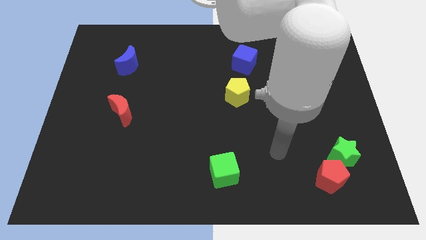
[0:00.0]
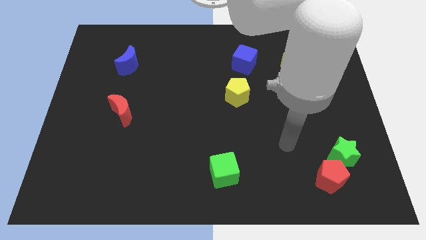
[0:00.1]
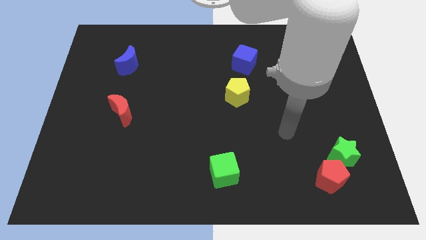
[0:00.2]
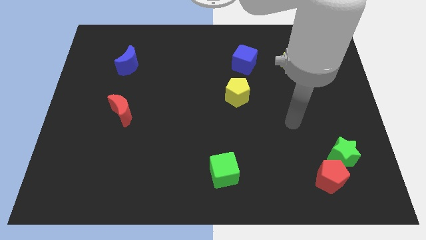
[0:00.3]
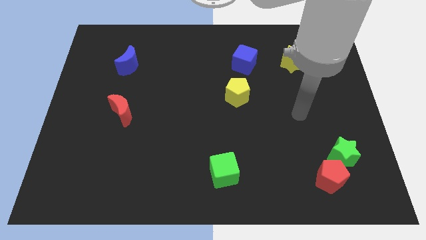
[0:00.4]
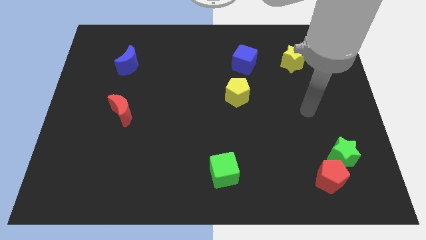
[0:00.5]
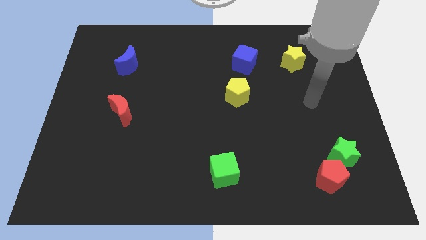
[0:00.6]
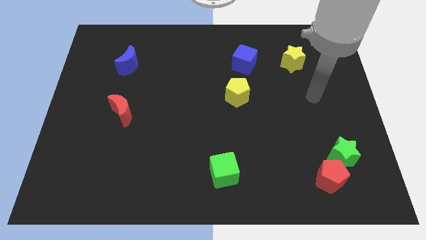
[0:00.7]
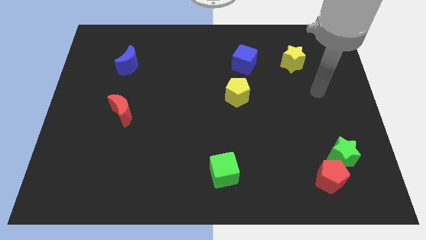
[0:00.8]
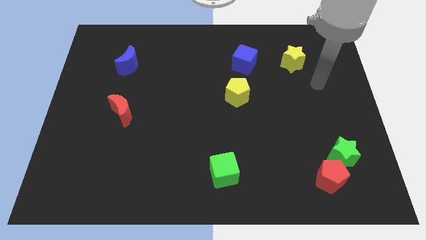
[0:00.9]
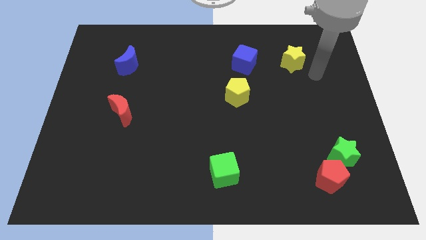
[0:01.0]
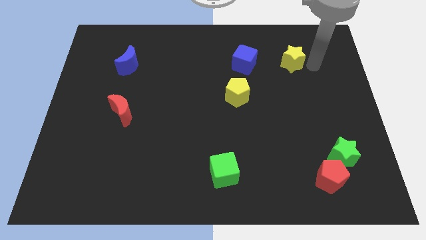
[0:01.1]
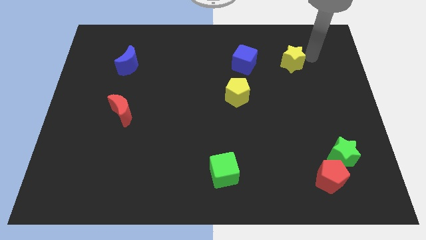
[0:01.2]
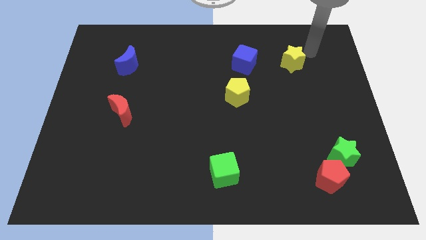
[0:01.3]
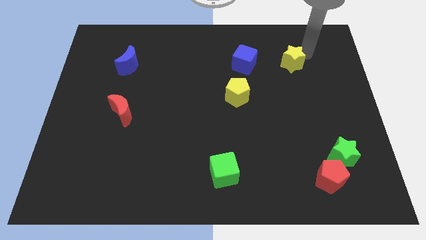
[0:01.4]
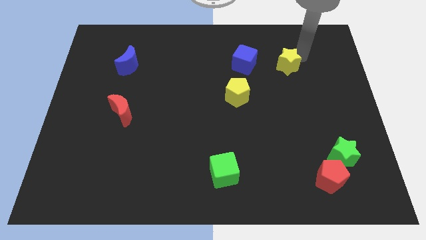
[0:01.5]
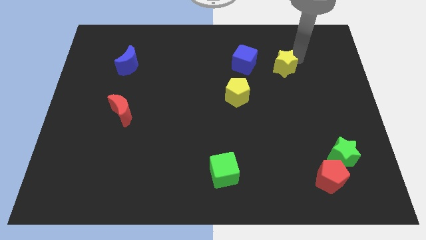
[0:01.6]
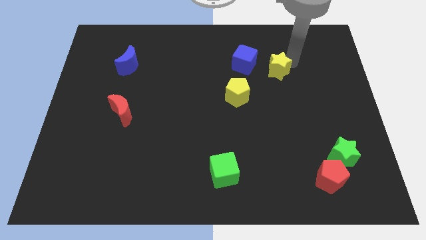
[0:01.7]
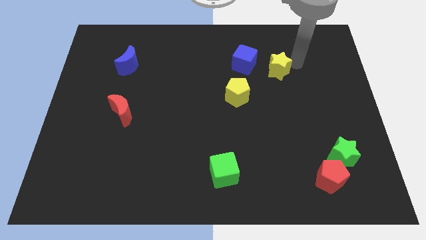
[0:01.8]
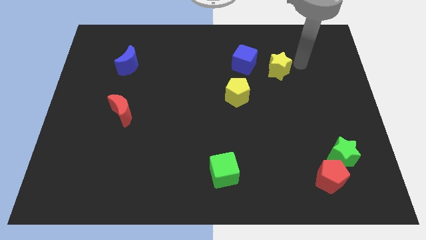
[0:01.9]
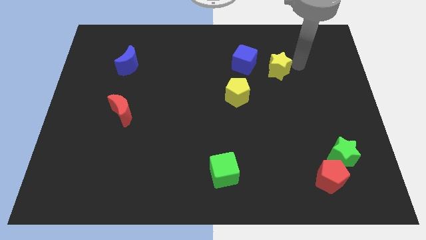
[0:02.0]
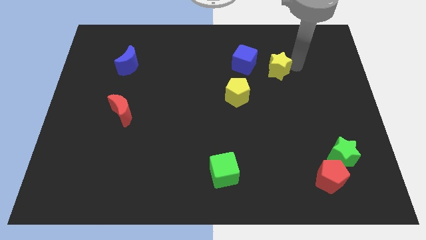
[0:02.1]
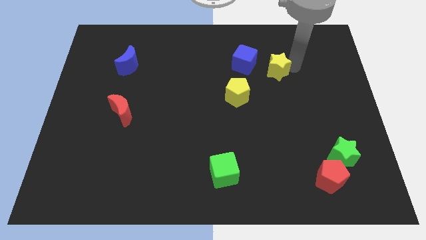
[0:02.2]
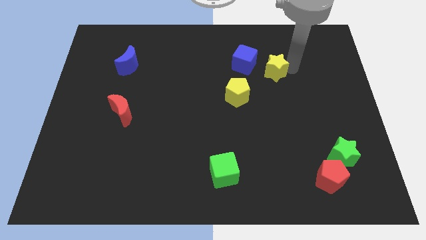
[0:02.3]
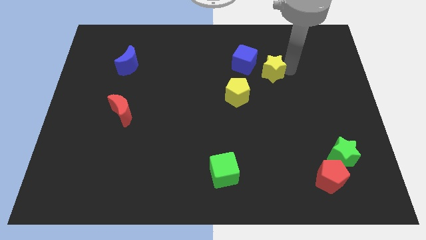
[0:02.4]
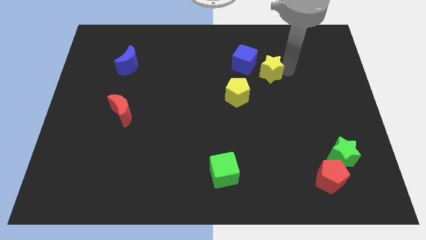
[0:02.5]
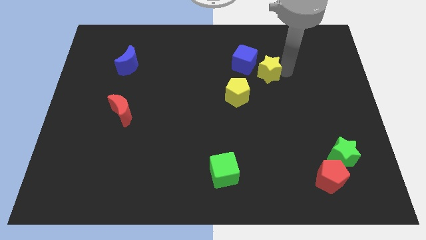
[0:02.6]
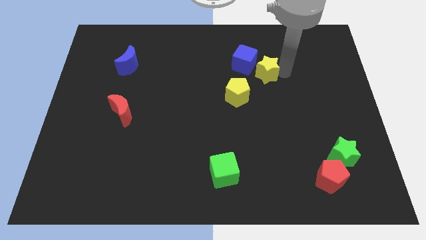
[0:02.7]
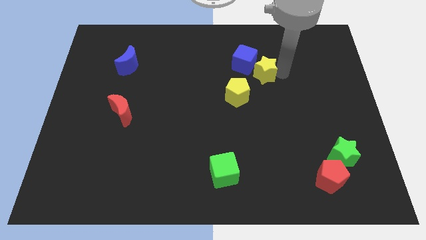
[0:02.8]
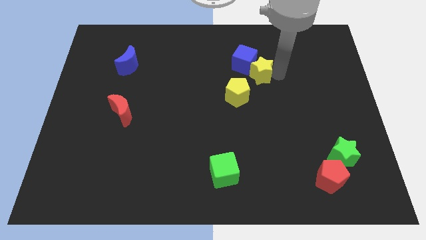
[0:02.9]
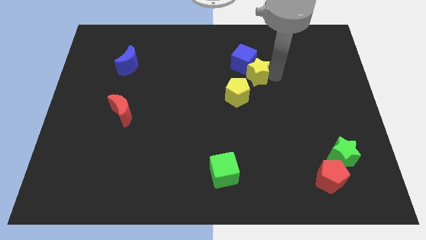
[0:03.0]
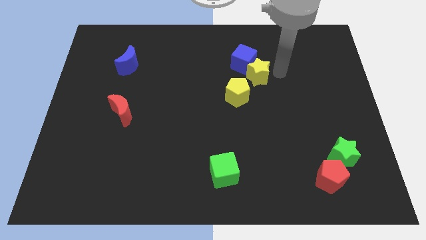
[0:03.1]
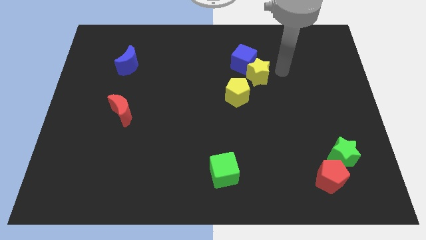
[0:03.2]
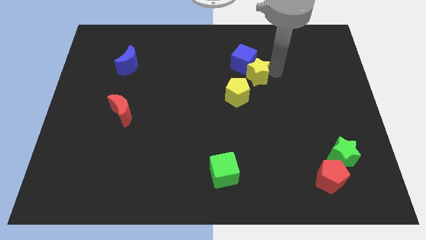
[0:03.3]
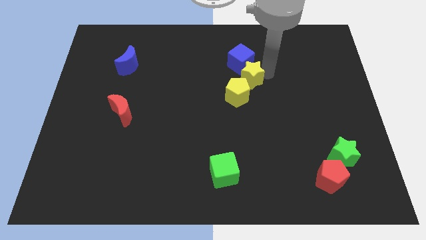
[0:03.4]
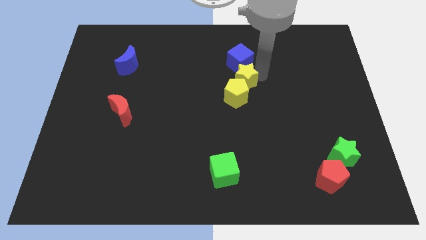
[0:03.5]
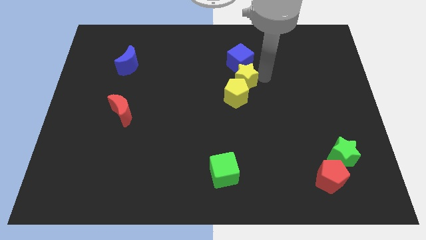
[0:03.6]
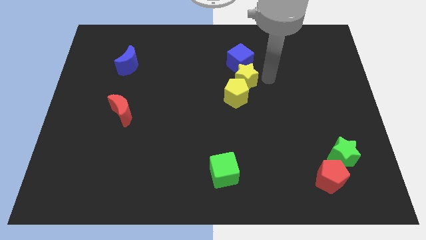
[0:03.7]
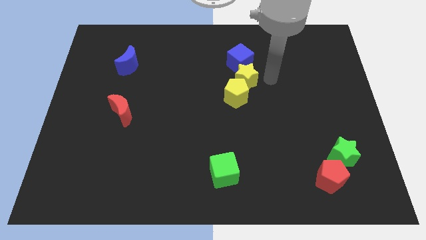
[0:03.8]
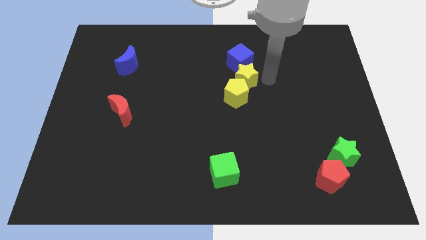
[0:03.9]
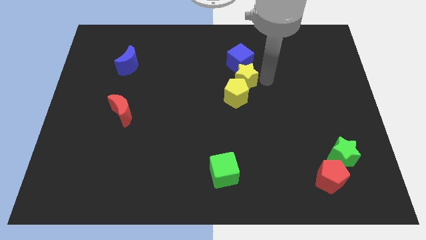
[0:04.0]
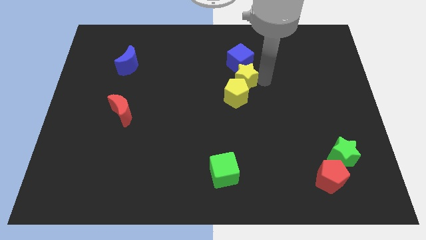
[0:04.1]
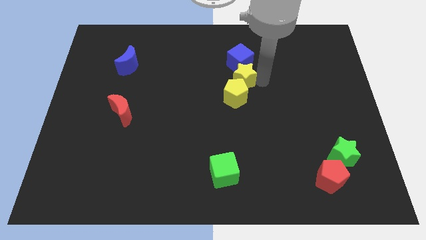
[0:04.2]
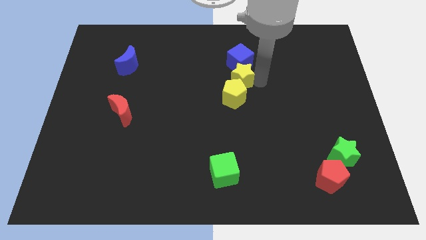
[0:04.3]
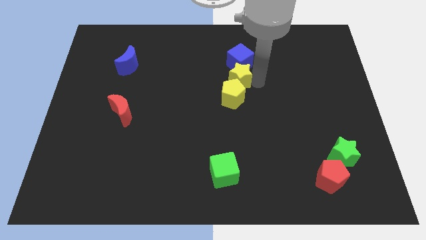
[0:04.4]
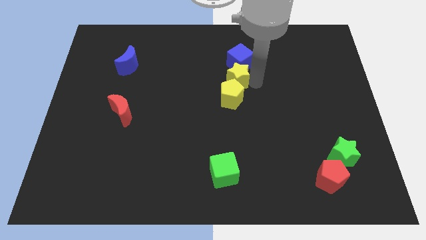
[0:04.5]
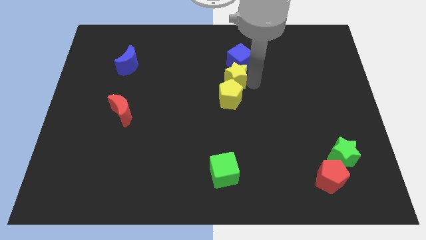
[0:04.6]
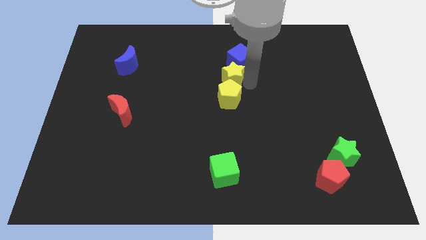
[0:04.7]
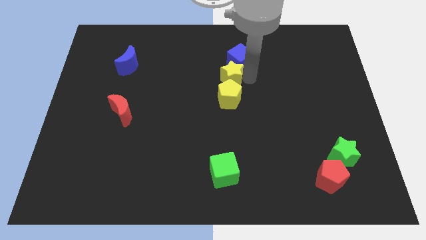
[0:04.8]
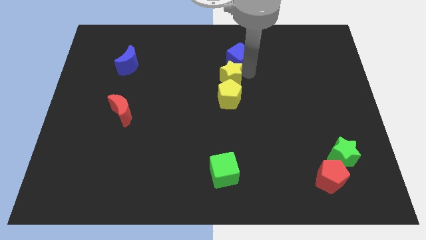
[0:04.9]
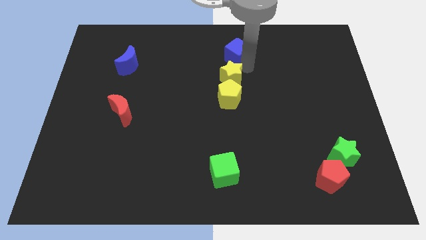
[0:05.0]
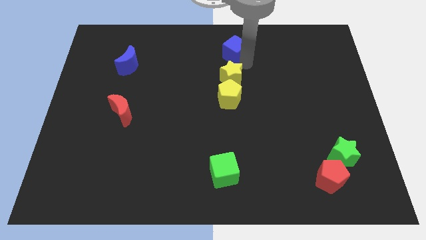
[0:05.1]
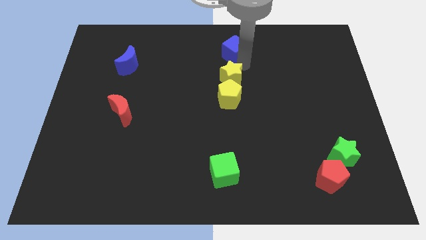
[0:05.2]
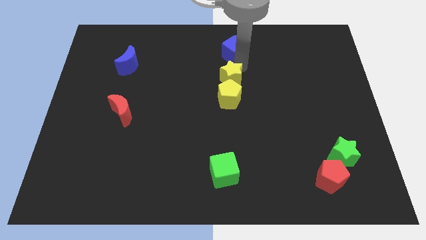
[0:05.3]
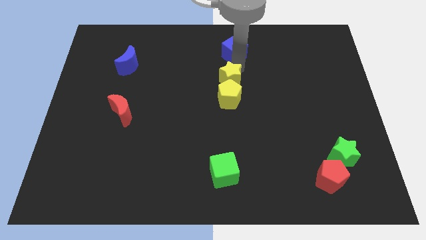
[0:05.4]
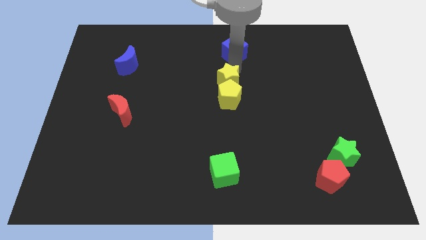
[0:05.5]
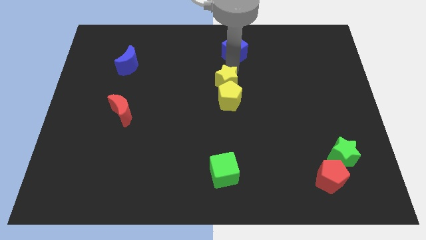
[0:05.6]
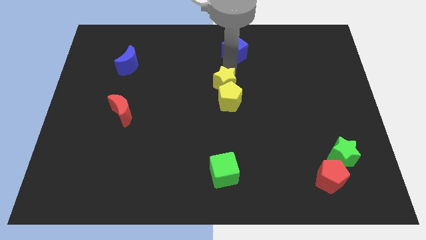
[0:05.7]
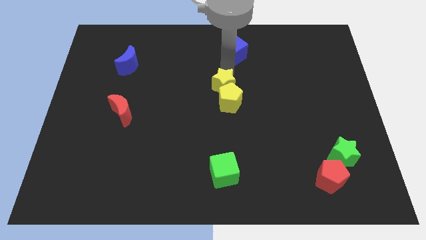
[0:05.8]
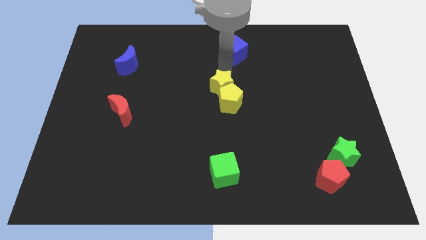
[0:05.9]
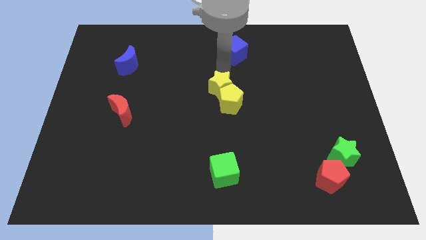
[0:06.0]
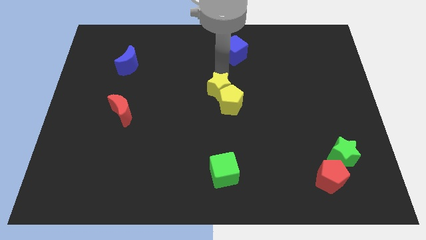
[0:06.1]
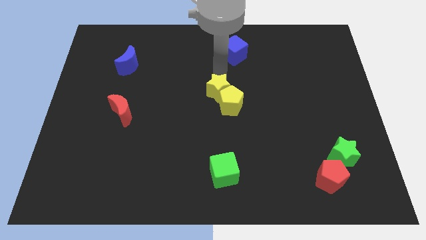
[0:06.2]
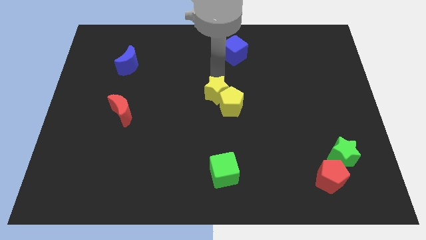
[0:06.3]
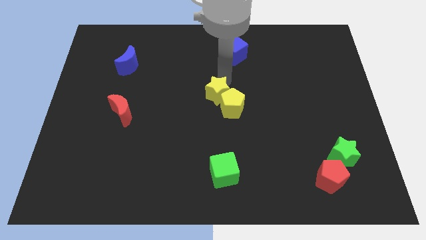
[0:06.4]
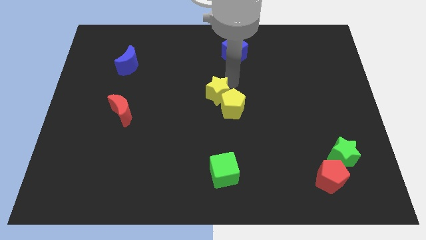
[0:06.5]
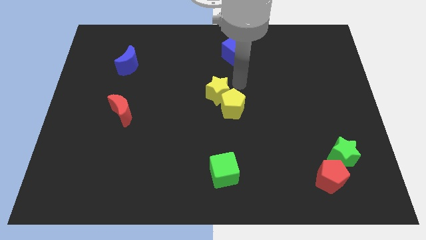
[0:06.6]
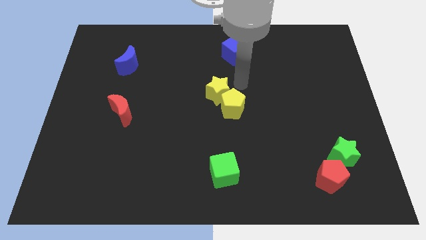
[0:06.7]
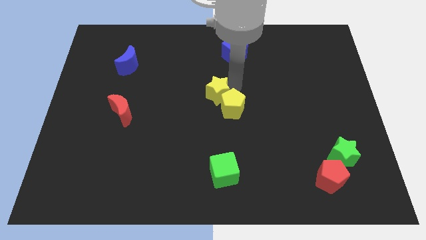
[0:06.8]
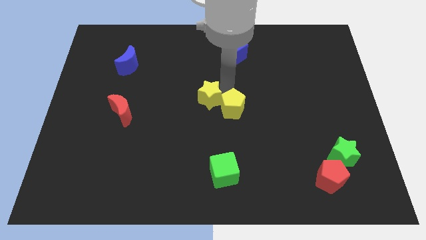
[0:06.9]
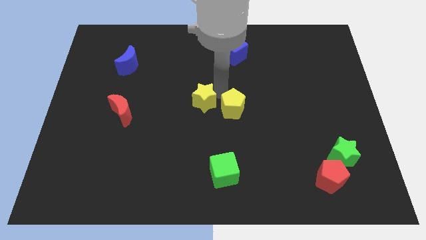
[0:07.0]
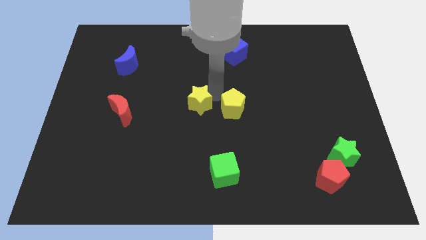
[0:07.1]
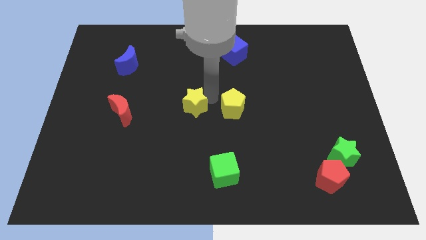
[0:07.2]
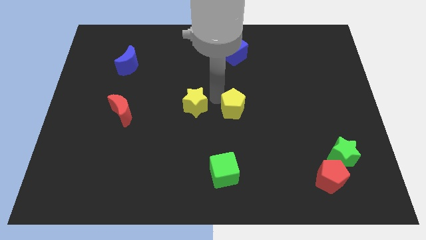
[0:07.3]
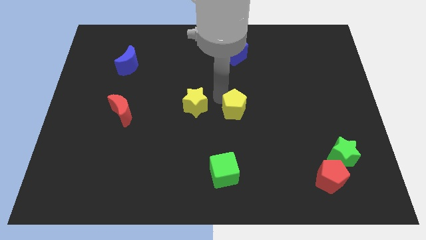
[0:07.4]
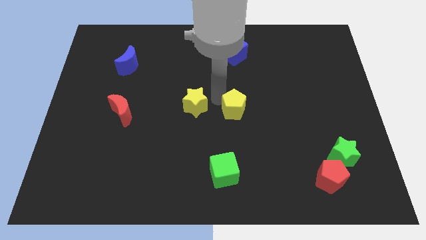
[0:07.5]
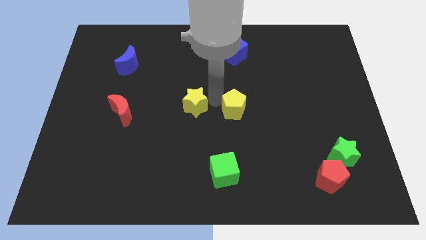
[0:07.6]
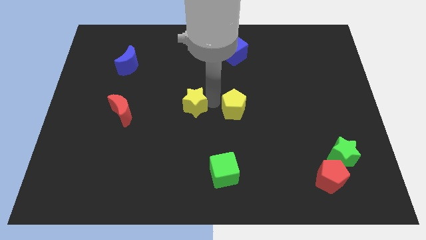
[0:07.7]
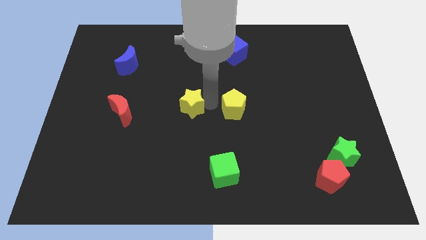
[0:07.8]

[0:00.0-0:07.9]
move the yellow star right of the red moon
